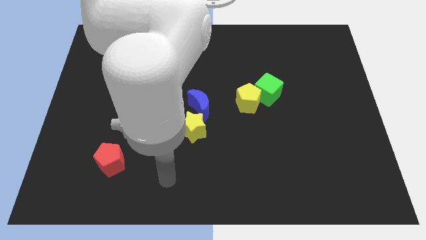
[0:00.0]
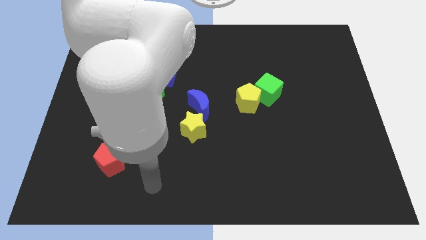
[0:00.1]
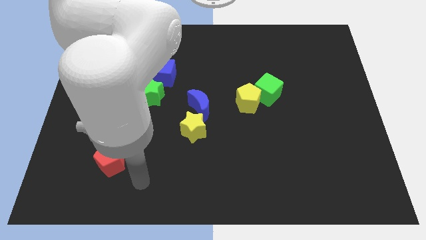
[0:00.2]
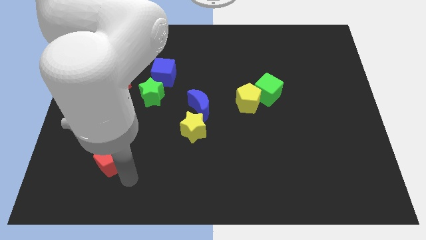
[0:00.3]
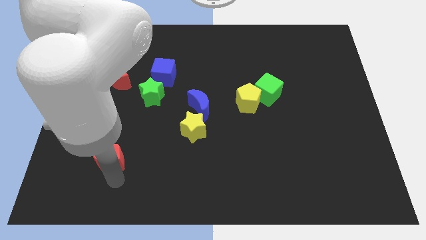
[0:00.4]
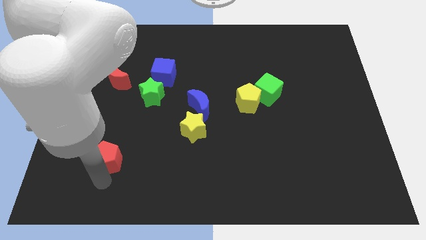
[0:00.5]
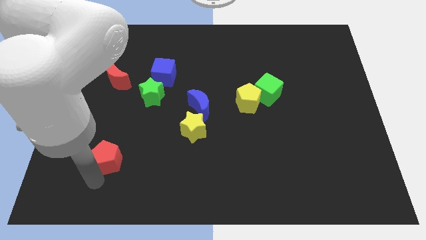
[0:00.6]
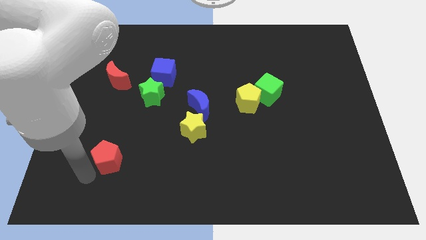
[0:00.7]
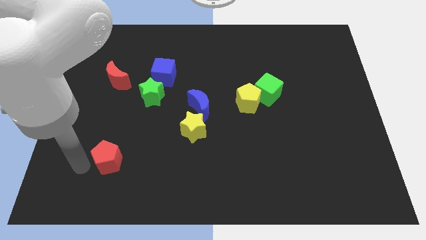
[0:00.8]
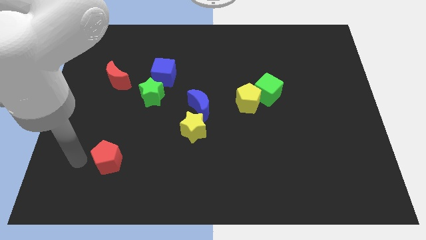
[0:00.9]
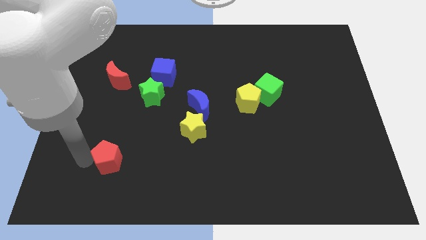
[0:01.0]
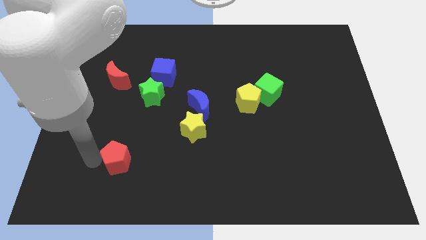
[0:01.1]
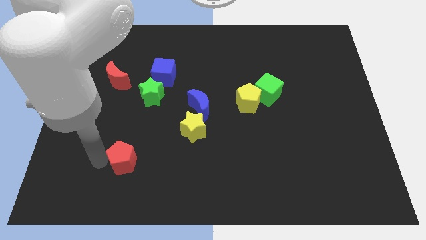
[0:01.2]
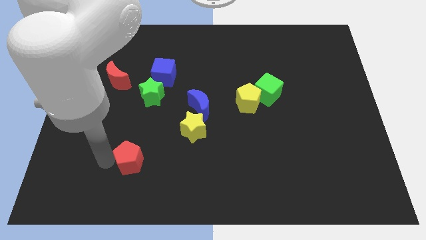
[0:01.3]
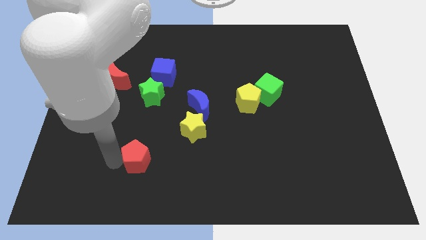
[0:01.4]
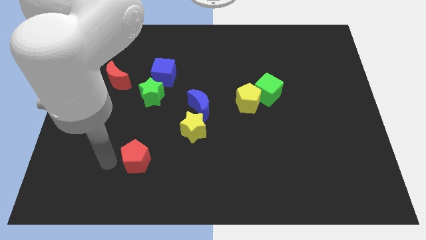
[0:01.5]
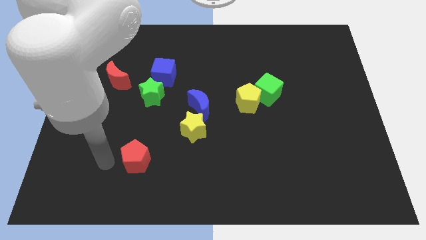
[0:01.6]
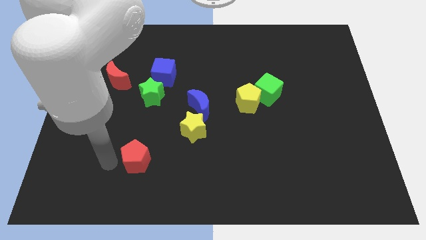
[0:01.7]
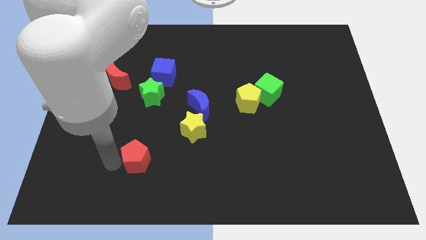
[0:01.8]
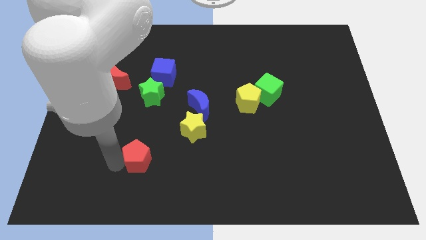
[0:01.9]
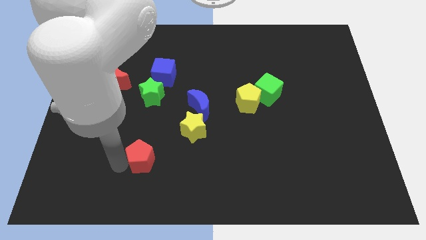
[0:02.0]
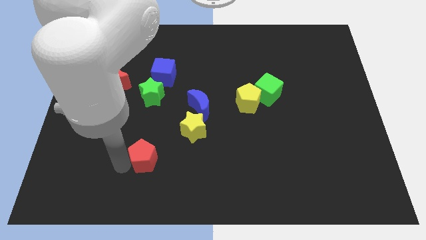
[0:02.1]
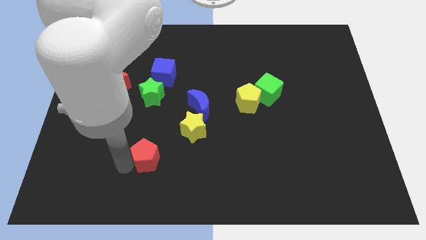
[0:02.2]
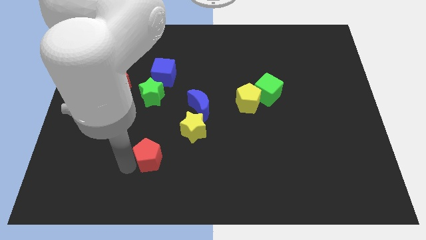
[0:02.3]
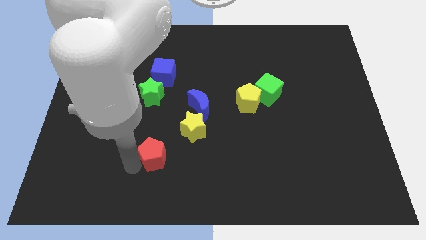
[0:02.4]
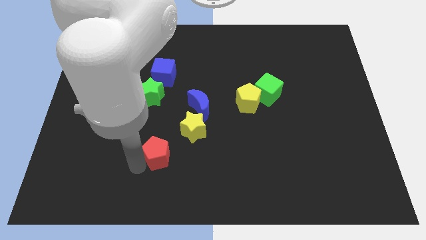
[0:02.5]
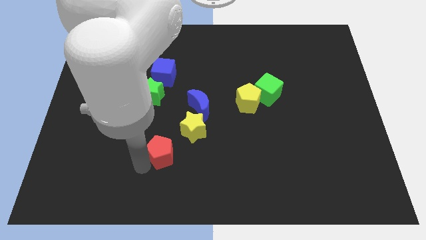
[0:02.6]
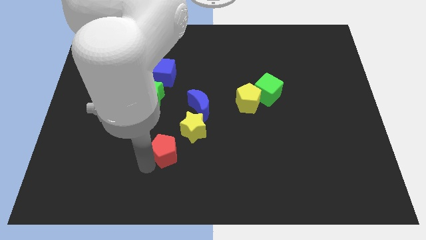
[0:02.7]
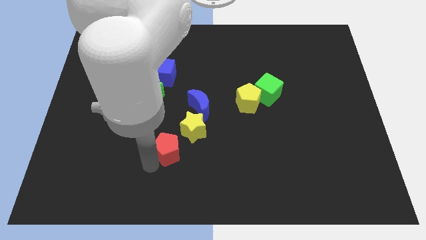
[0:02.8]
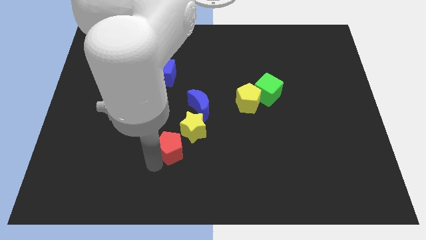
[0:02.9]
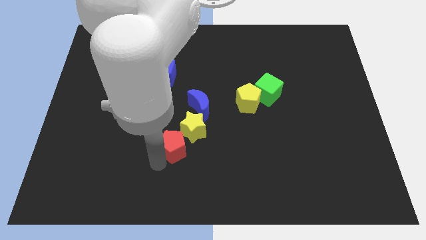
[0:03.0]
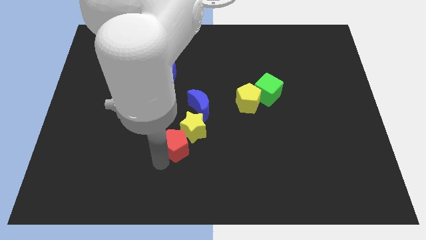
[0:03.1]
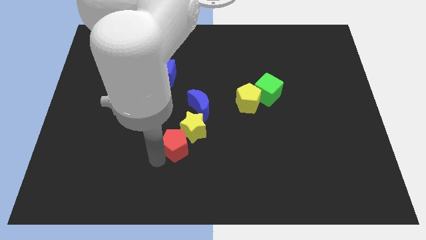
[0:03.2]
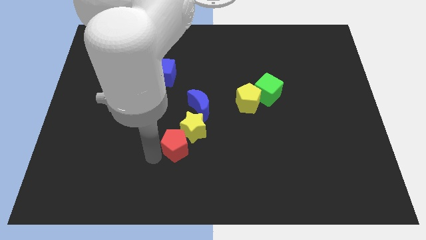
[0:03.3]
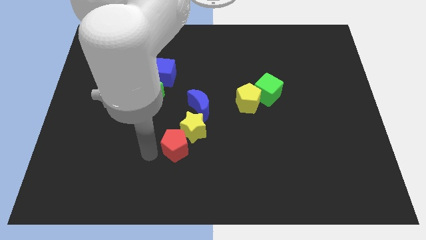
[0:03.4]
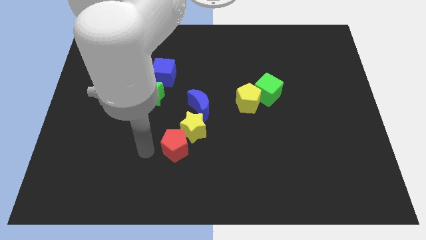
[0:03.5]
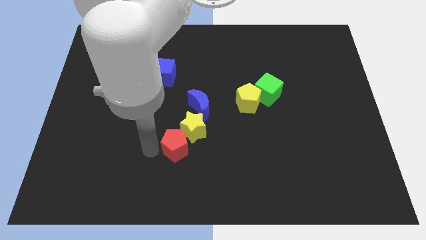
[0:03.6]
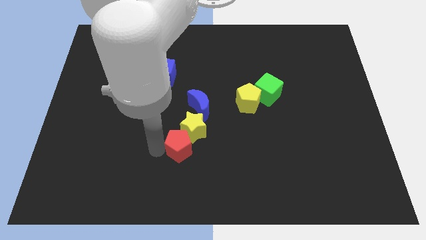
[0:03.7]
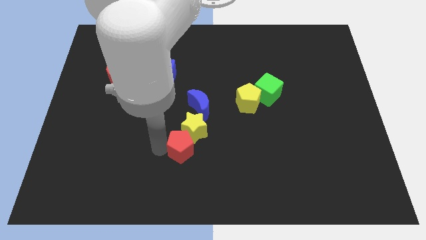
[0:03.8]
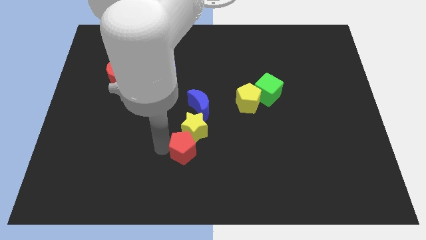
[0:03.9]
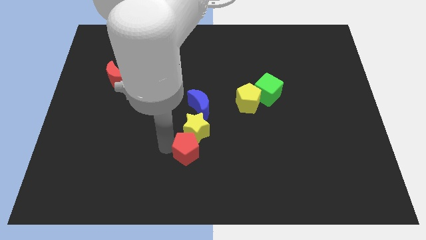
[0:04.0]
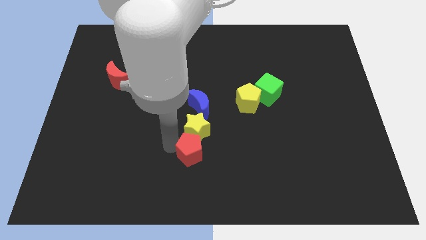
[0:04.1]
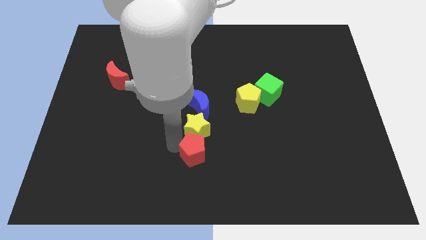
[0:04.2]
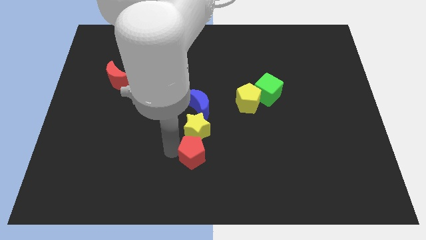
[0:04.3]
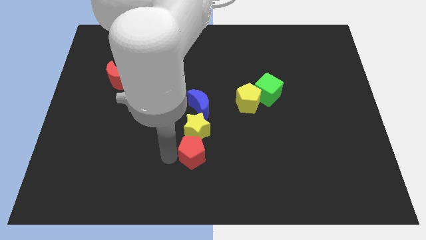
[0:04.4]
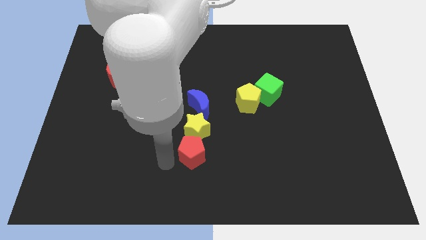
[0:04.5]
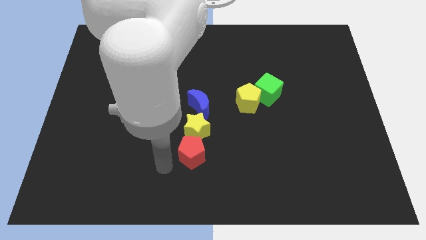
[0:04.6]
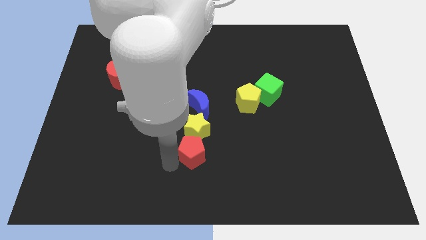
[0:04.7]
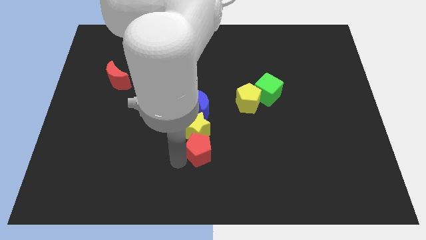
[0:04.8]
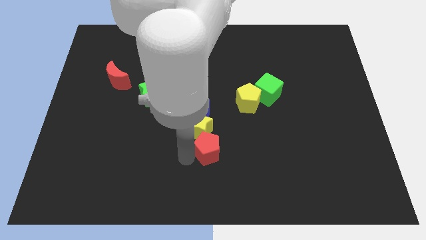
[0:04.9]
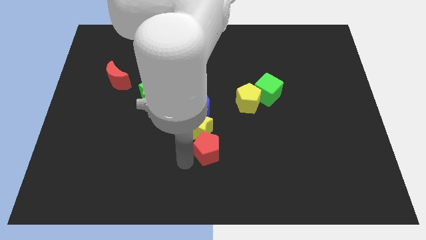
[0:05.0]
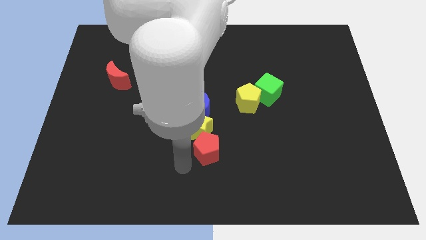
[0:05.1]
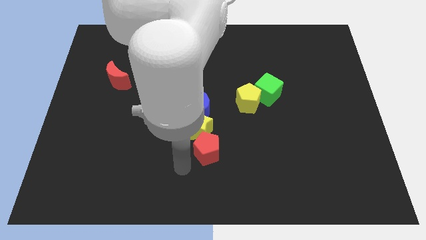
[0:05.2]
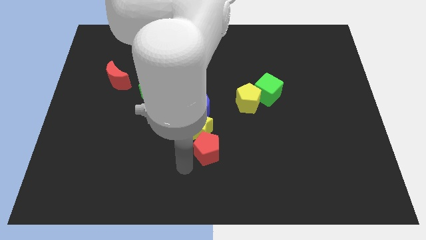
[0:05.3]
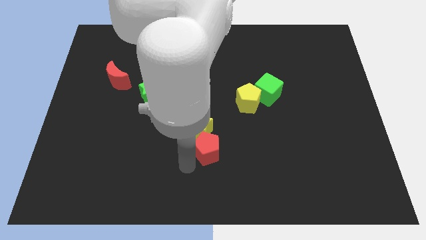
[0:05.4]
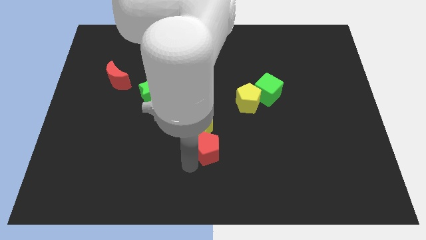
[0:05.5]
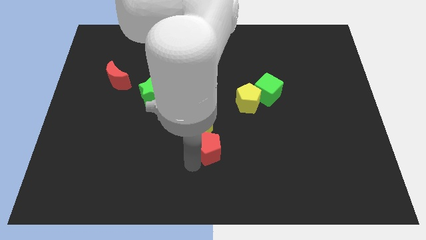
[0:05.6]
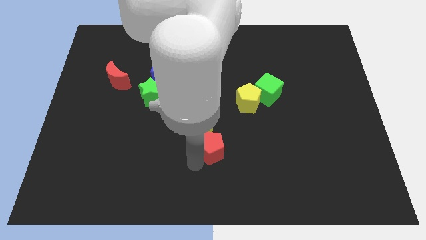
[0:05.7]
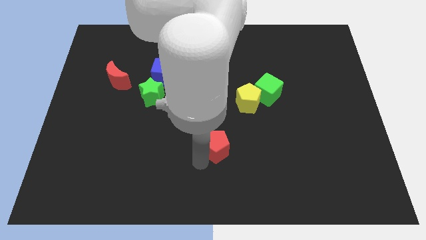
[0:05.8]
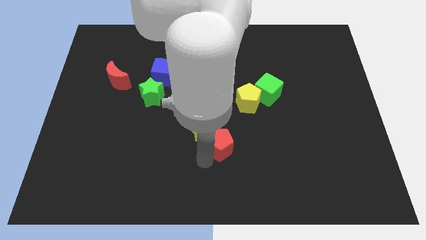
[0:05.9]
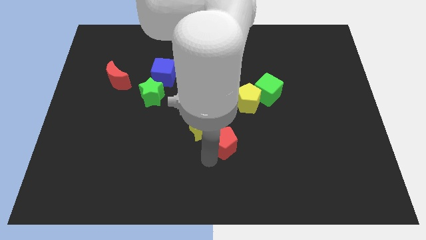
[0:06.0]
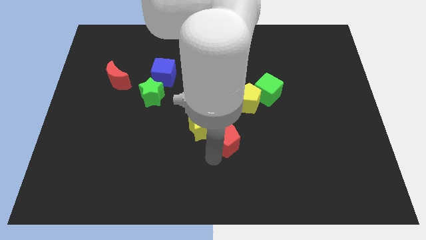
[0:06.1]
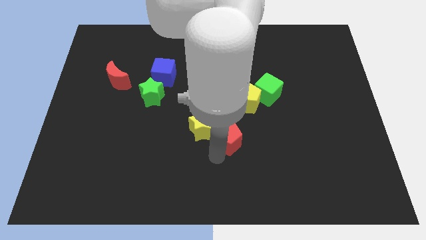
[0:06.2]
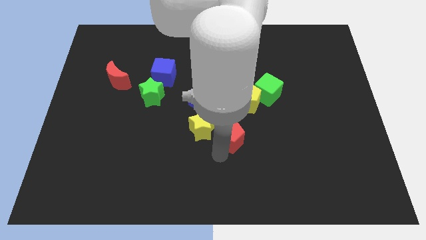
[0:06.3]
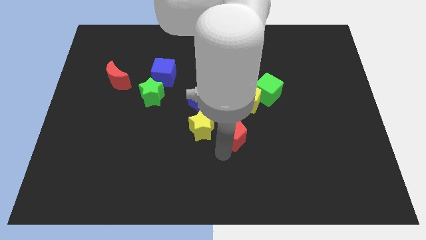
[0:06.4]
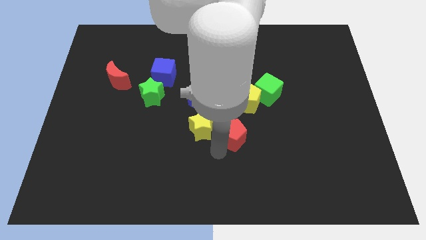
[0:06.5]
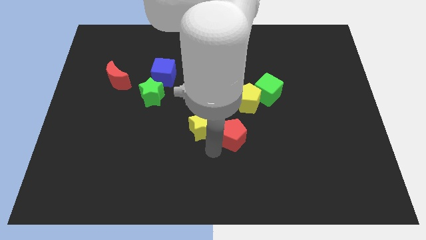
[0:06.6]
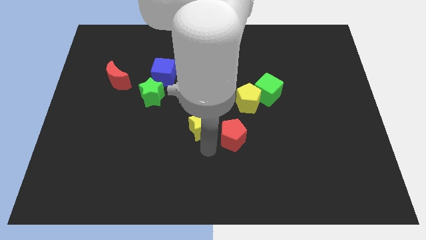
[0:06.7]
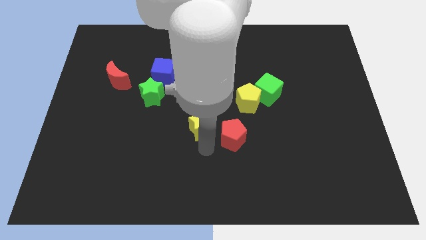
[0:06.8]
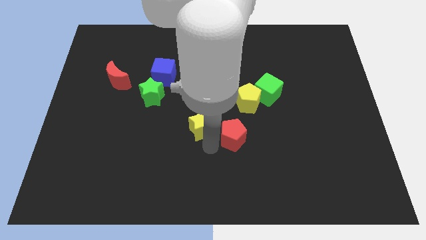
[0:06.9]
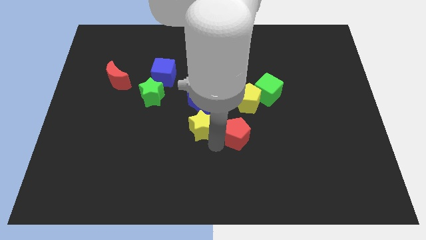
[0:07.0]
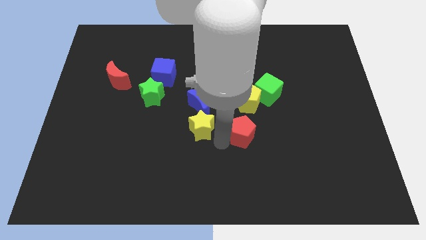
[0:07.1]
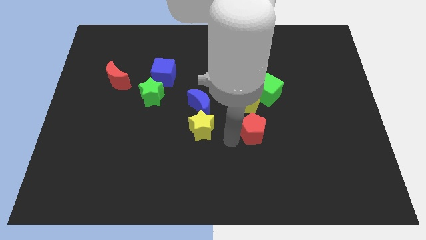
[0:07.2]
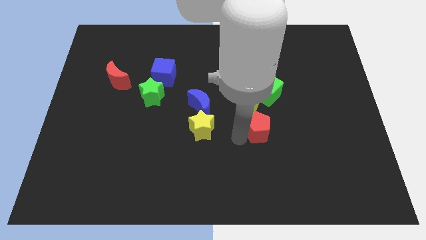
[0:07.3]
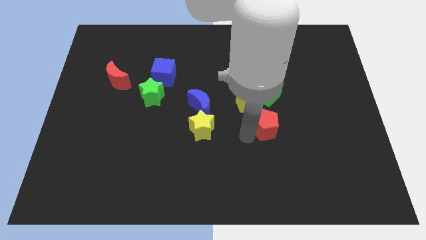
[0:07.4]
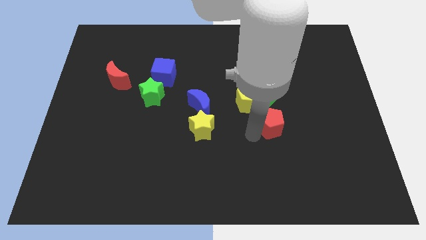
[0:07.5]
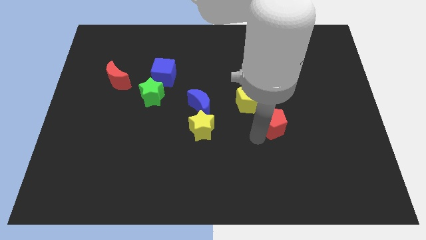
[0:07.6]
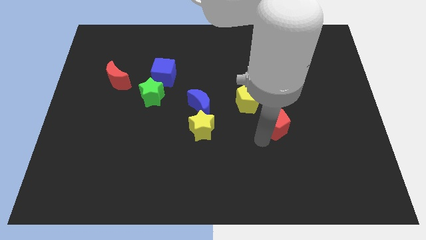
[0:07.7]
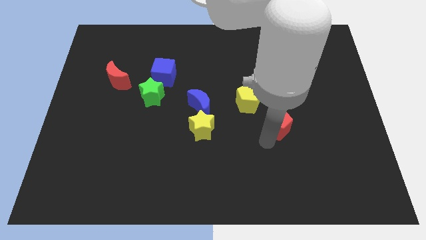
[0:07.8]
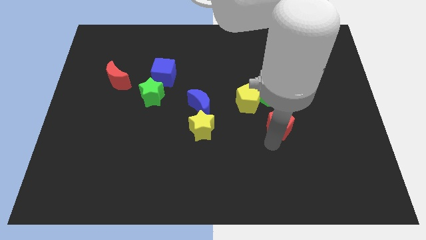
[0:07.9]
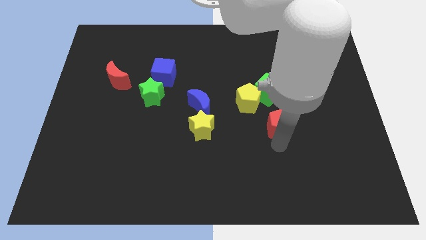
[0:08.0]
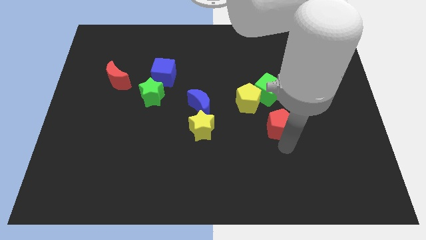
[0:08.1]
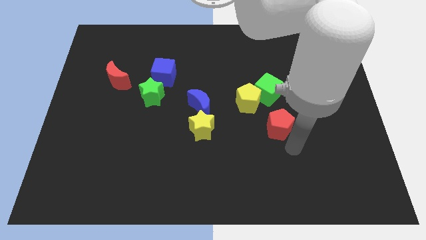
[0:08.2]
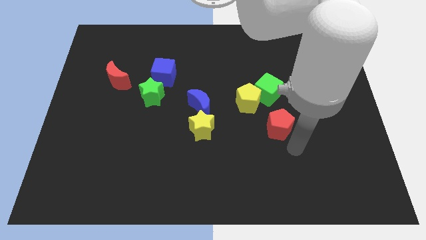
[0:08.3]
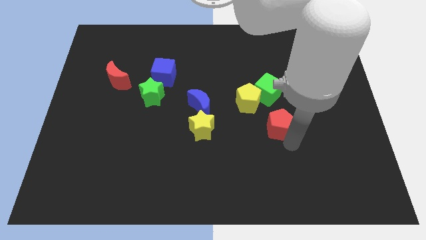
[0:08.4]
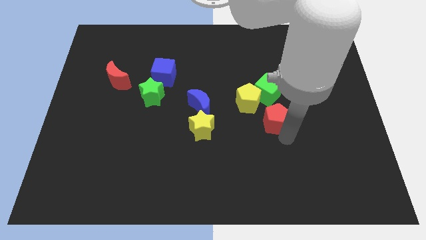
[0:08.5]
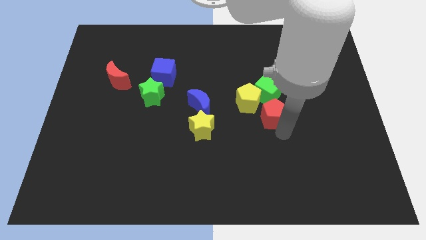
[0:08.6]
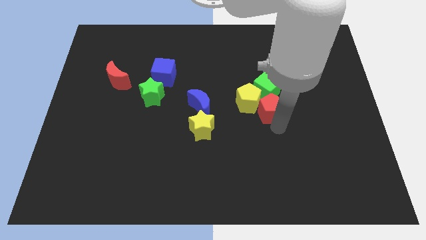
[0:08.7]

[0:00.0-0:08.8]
slide the red pentagon next to the green cube
